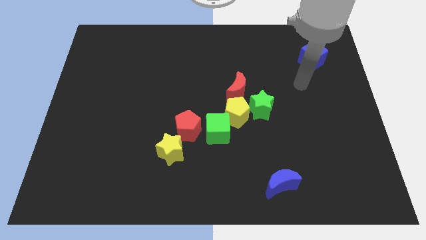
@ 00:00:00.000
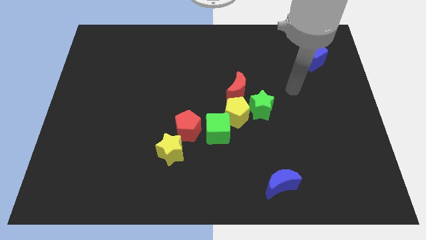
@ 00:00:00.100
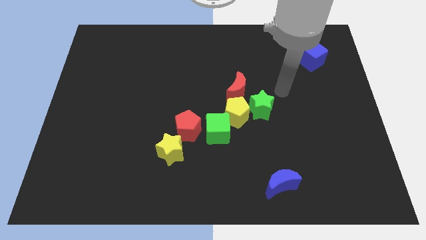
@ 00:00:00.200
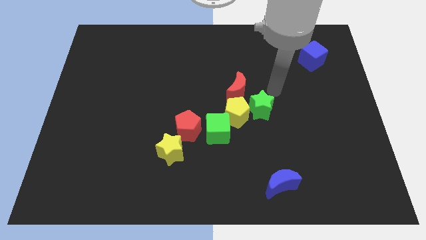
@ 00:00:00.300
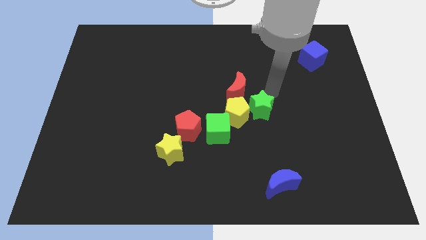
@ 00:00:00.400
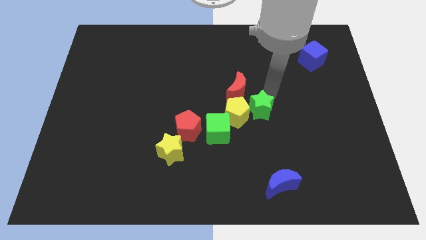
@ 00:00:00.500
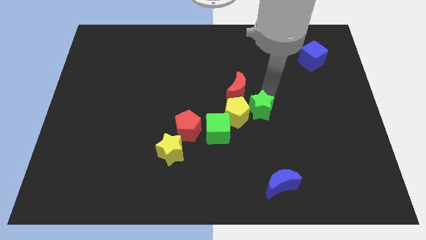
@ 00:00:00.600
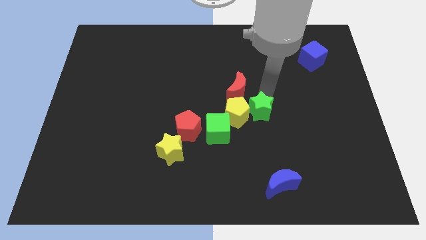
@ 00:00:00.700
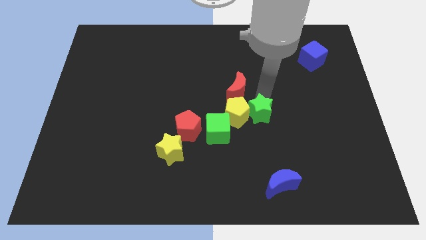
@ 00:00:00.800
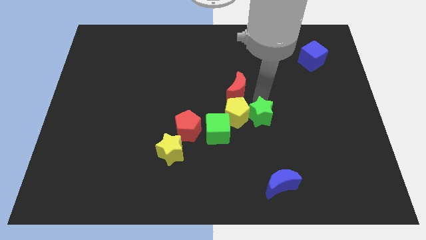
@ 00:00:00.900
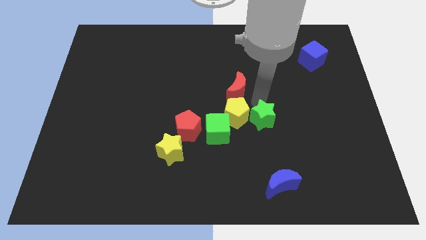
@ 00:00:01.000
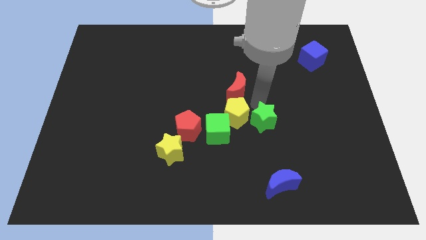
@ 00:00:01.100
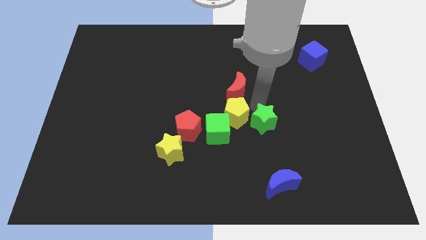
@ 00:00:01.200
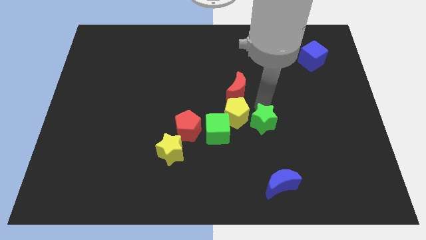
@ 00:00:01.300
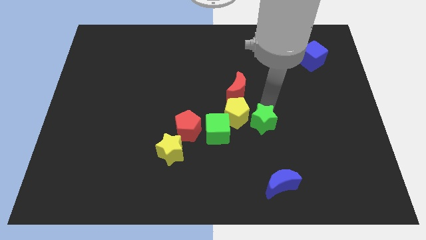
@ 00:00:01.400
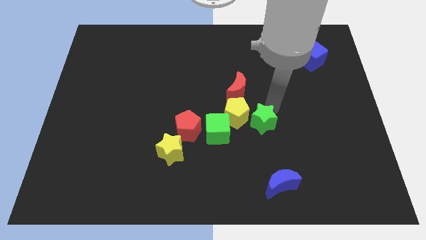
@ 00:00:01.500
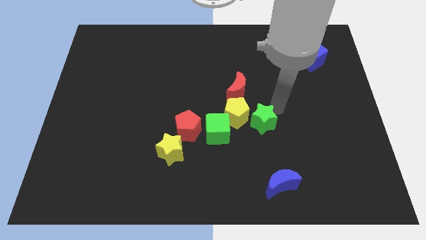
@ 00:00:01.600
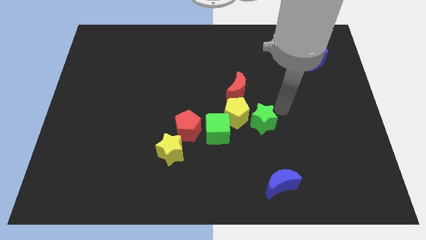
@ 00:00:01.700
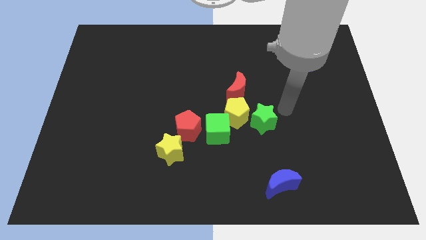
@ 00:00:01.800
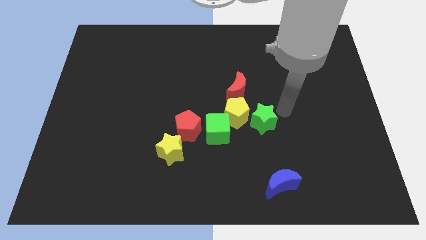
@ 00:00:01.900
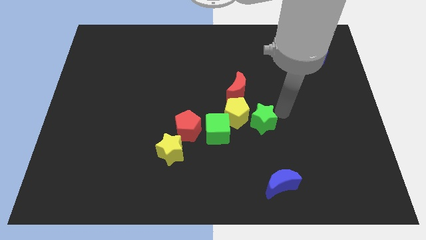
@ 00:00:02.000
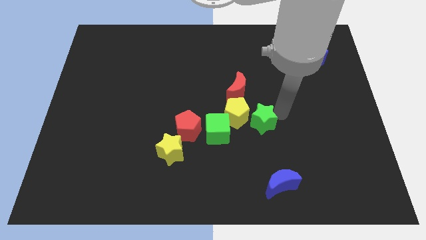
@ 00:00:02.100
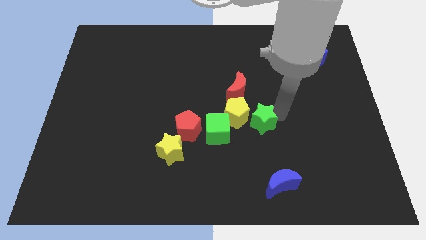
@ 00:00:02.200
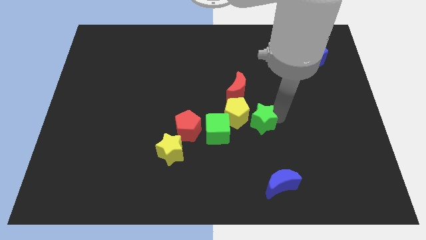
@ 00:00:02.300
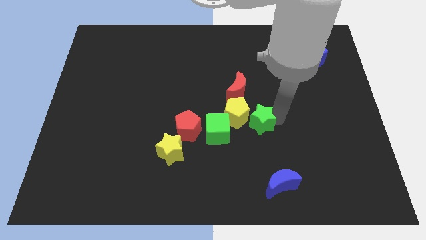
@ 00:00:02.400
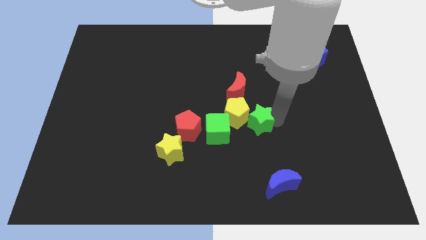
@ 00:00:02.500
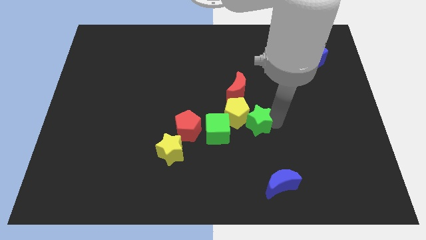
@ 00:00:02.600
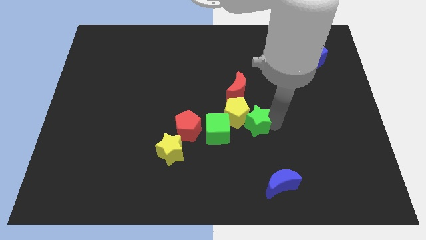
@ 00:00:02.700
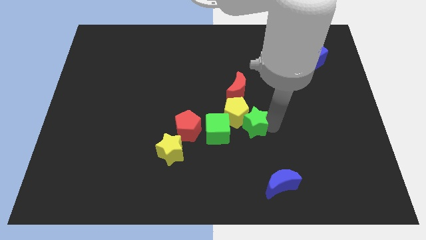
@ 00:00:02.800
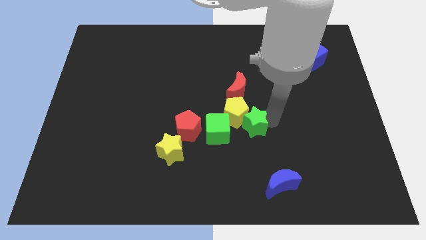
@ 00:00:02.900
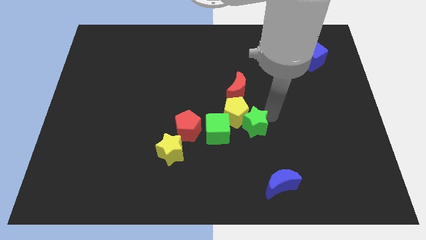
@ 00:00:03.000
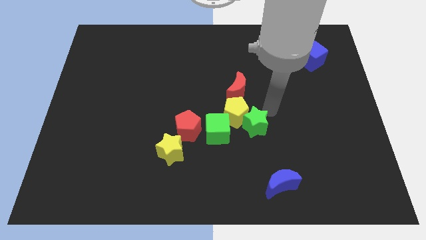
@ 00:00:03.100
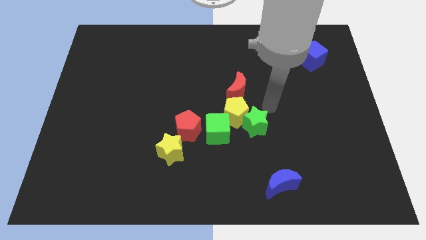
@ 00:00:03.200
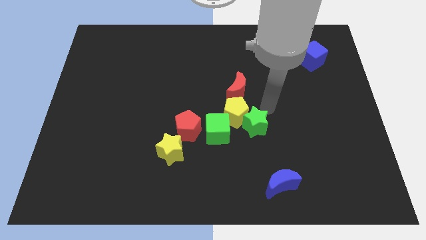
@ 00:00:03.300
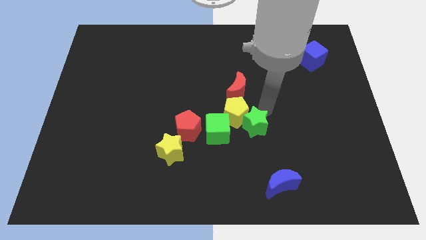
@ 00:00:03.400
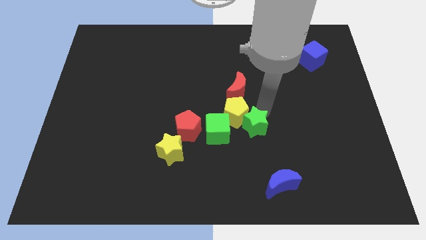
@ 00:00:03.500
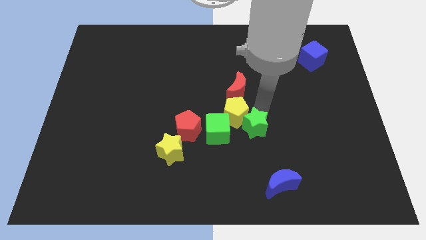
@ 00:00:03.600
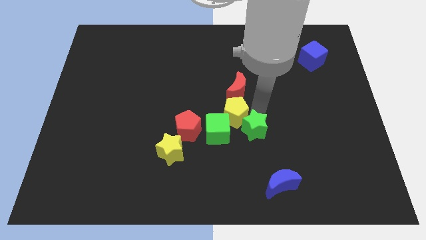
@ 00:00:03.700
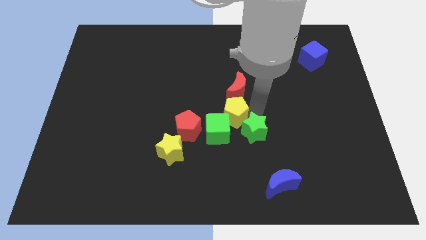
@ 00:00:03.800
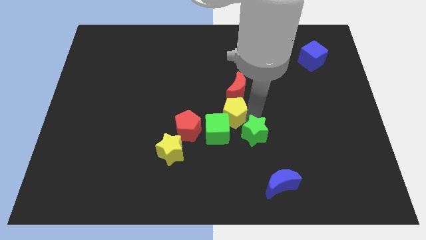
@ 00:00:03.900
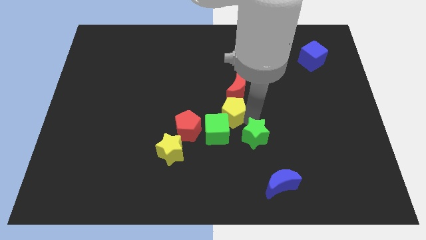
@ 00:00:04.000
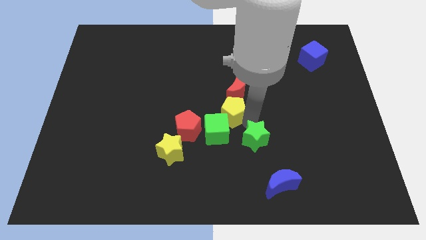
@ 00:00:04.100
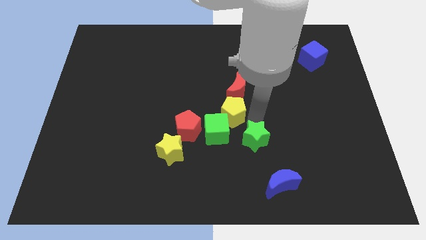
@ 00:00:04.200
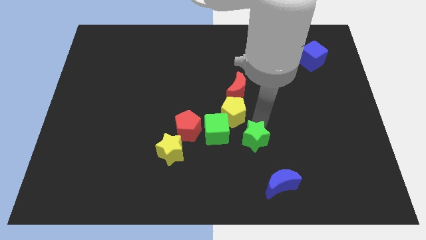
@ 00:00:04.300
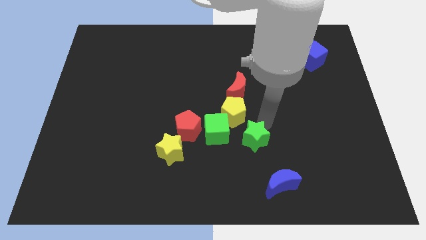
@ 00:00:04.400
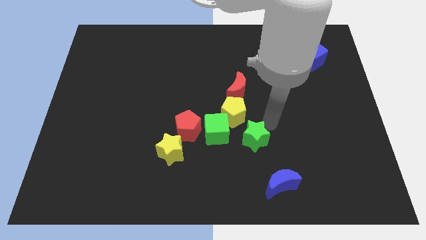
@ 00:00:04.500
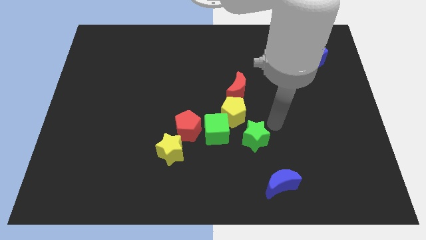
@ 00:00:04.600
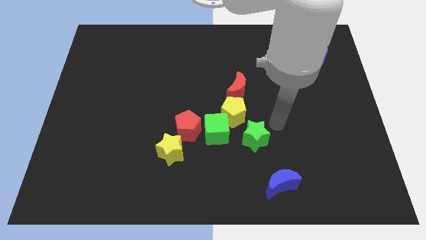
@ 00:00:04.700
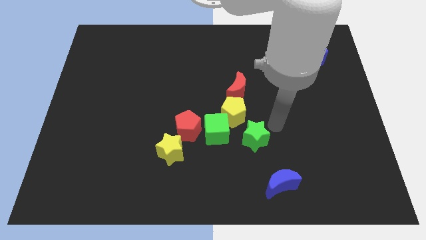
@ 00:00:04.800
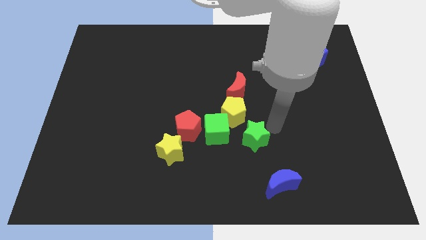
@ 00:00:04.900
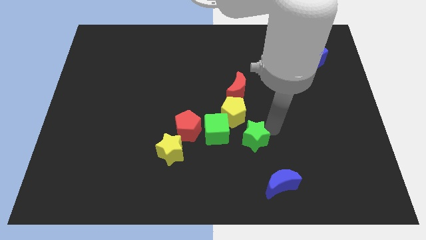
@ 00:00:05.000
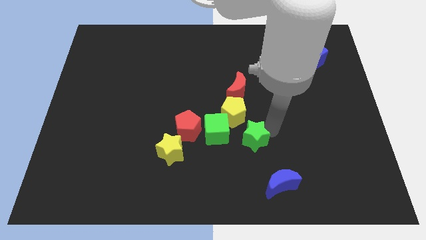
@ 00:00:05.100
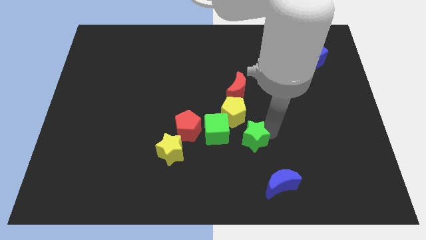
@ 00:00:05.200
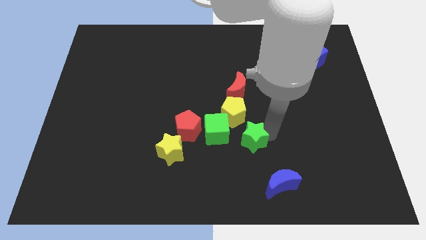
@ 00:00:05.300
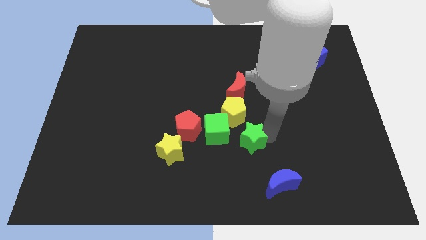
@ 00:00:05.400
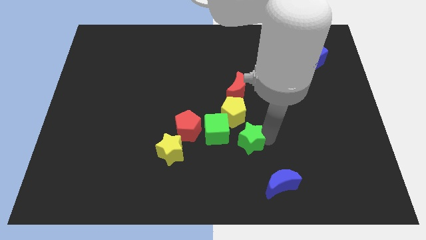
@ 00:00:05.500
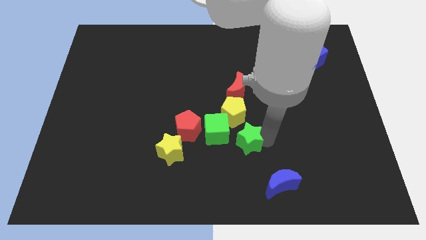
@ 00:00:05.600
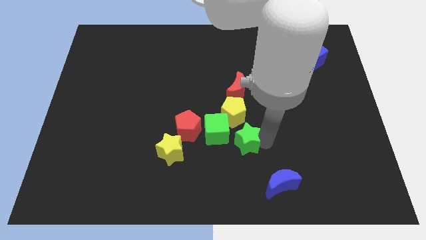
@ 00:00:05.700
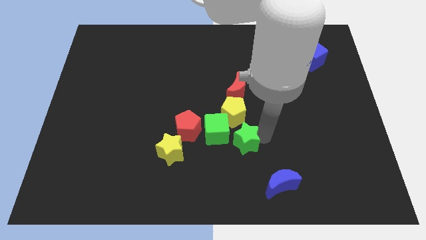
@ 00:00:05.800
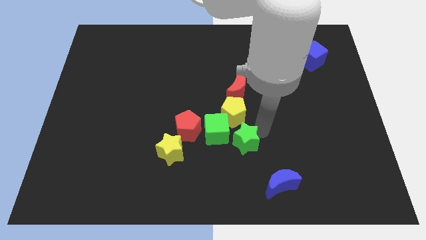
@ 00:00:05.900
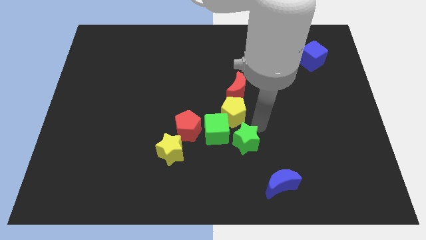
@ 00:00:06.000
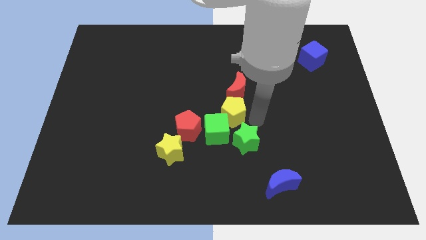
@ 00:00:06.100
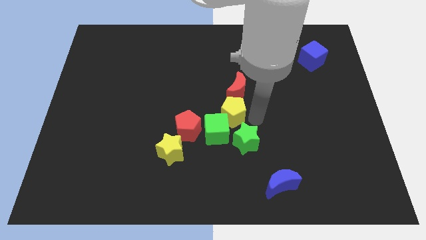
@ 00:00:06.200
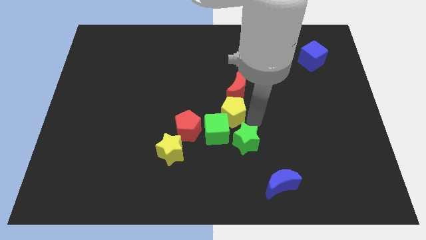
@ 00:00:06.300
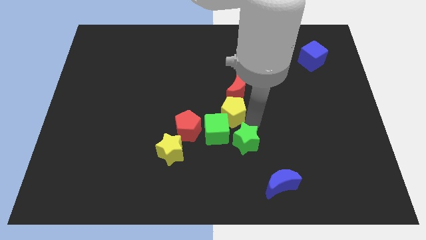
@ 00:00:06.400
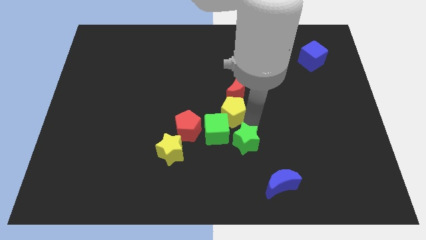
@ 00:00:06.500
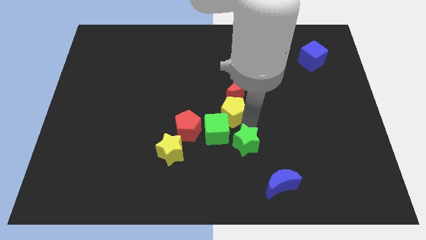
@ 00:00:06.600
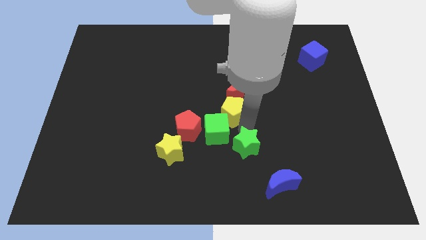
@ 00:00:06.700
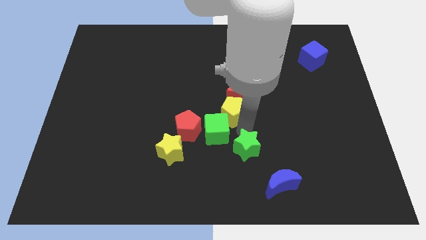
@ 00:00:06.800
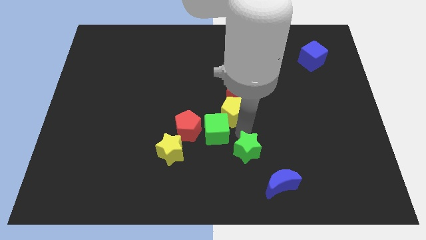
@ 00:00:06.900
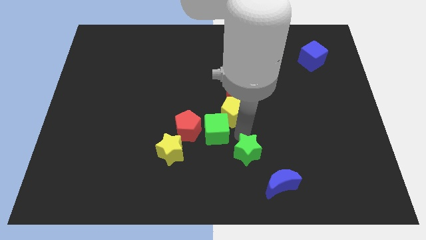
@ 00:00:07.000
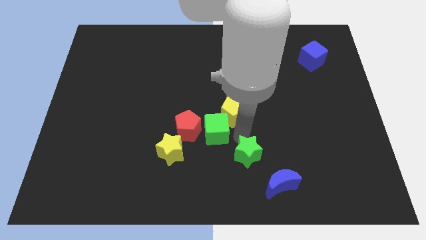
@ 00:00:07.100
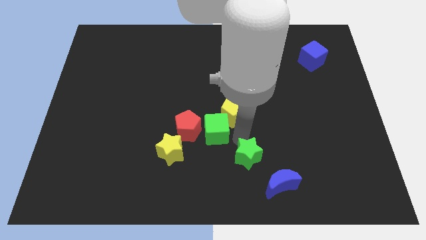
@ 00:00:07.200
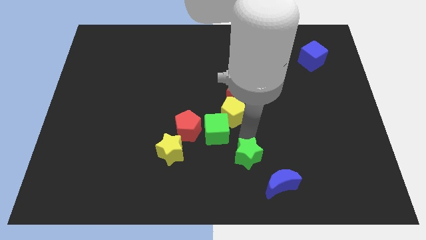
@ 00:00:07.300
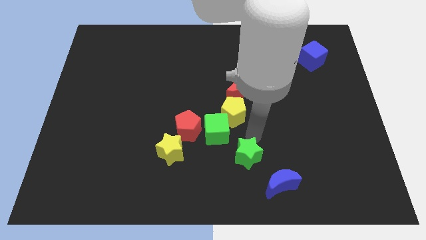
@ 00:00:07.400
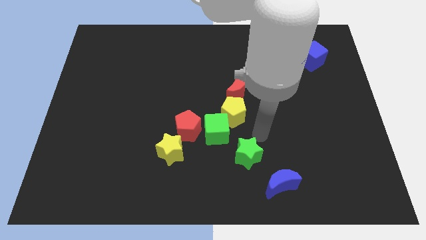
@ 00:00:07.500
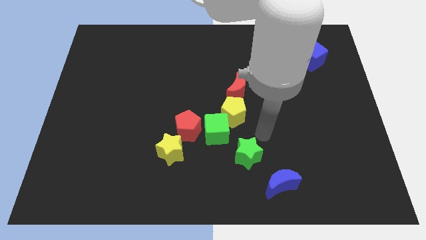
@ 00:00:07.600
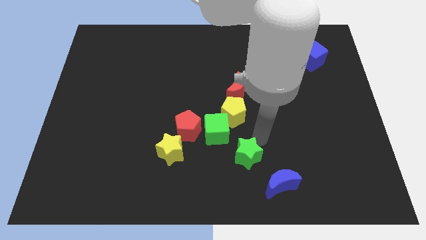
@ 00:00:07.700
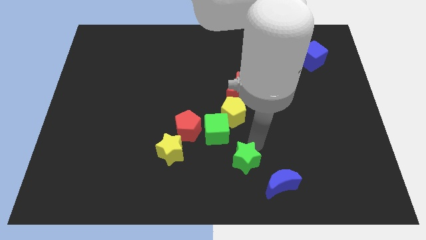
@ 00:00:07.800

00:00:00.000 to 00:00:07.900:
put the green star to the bottom side
